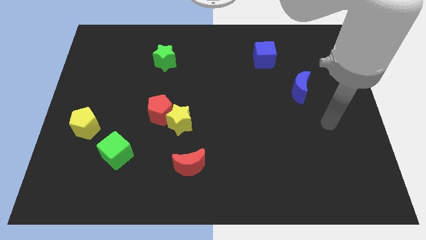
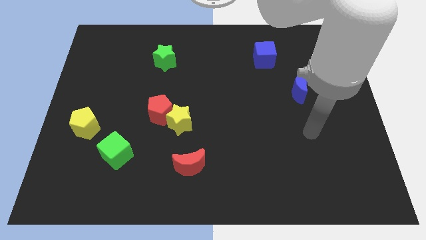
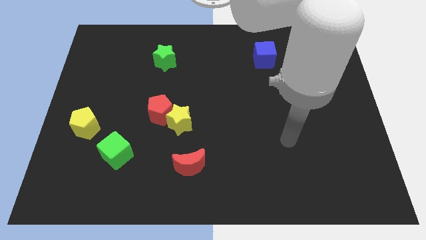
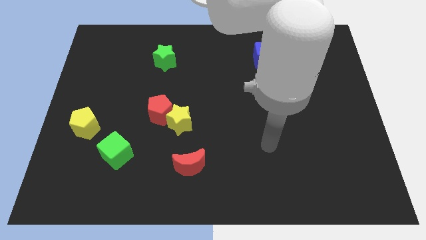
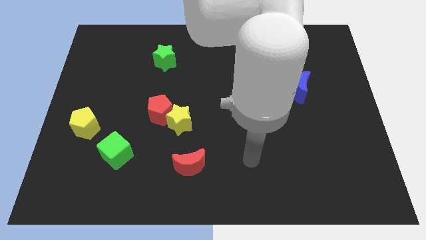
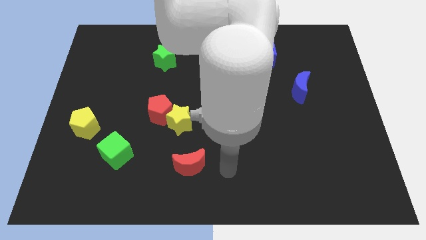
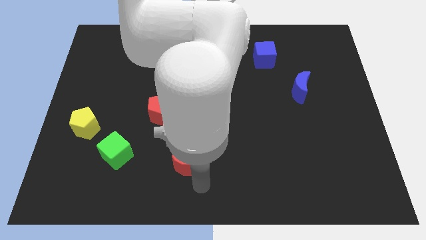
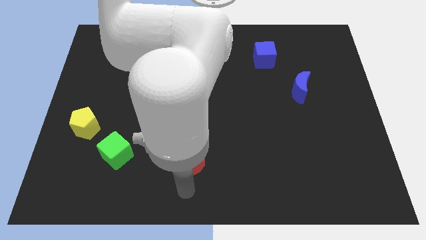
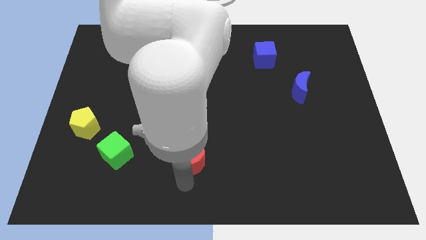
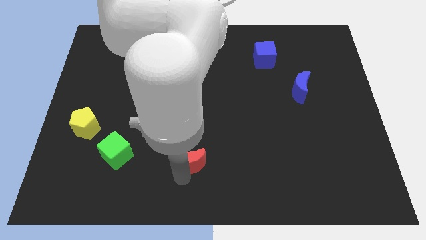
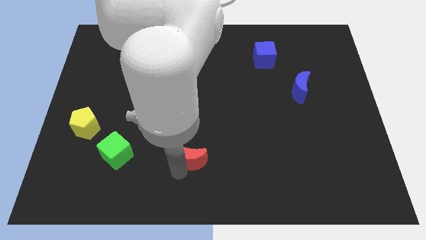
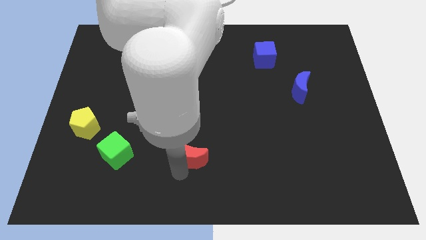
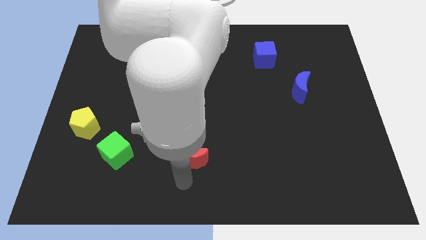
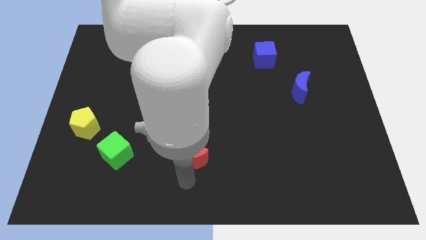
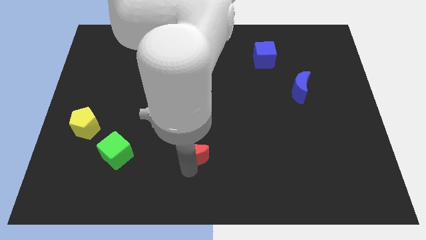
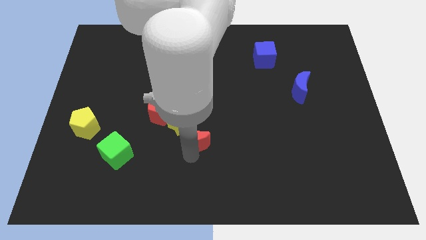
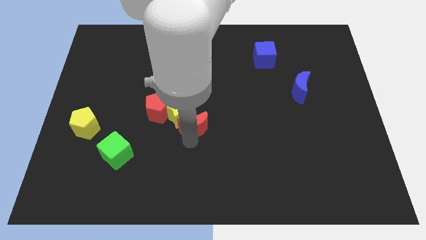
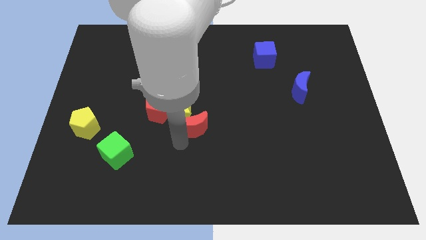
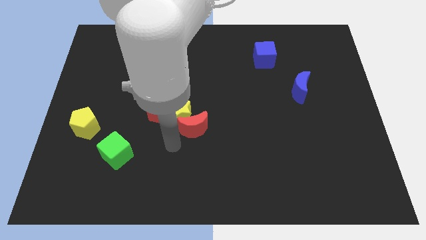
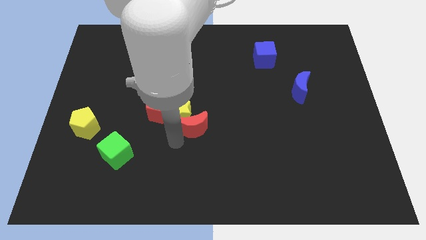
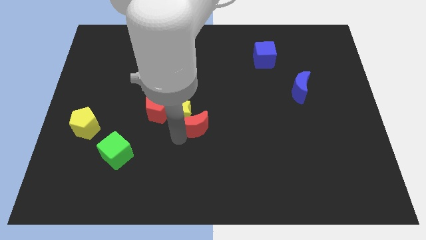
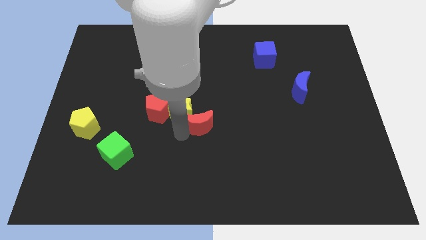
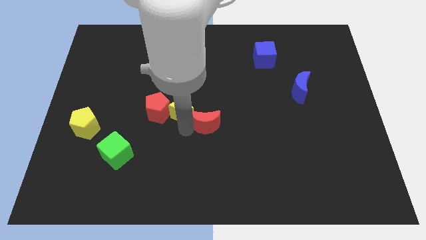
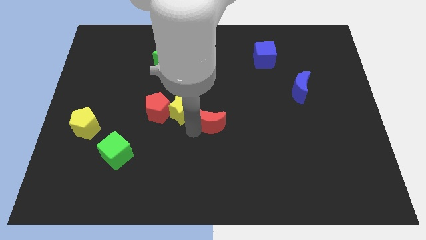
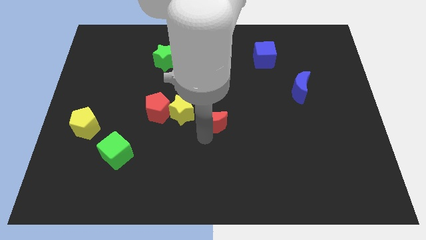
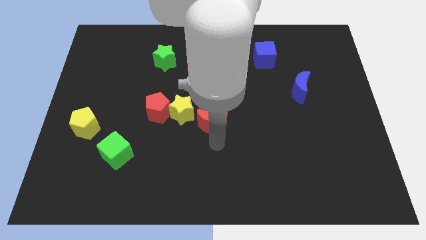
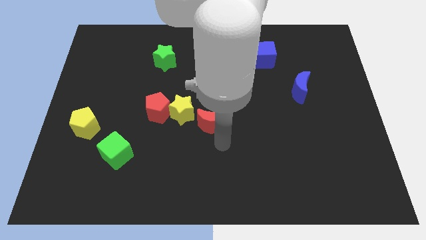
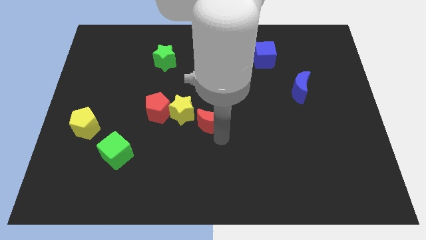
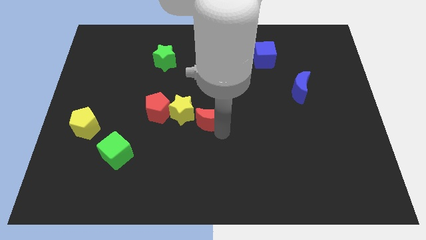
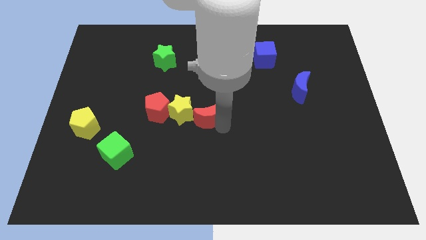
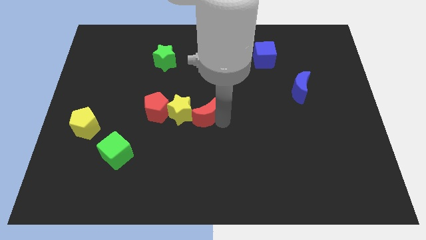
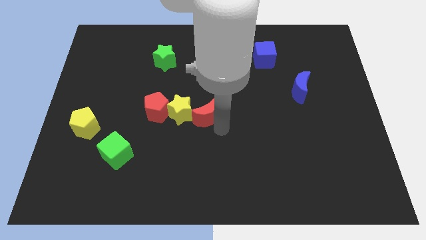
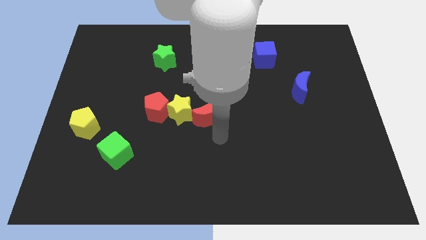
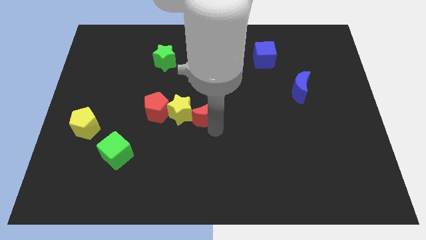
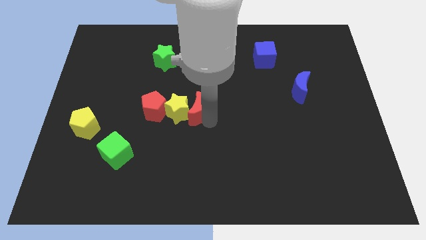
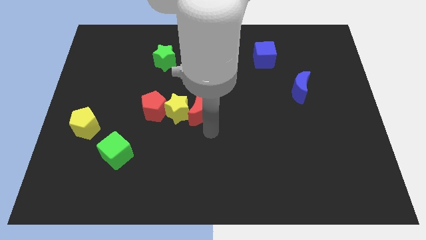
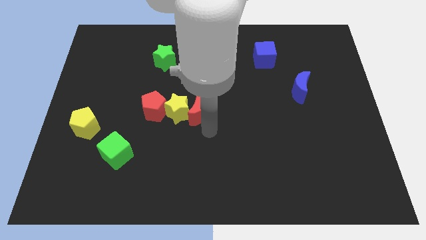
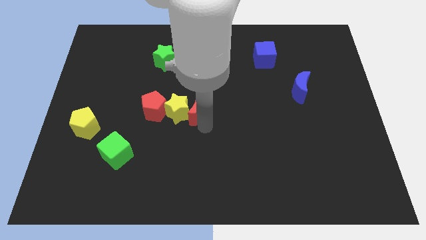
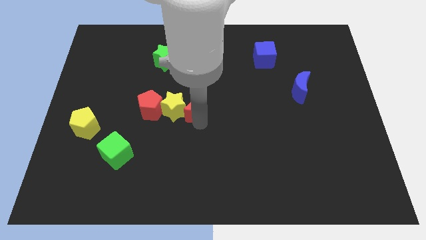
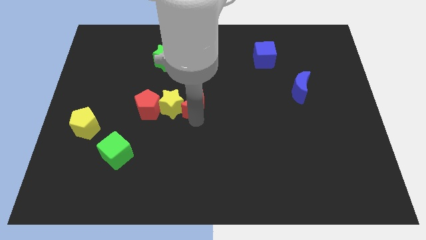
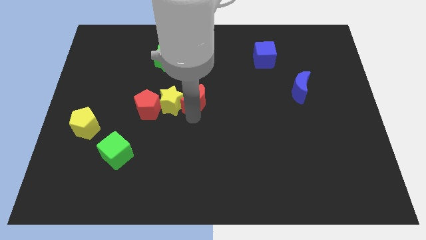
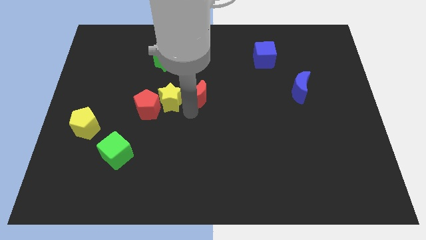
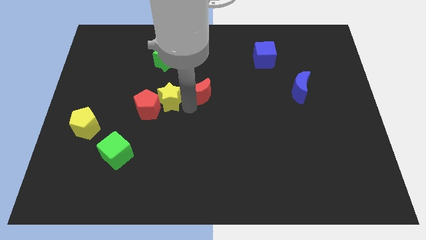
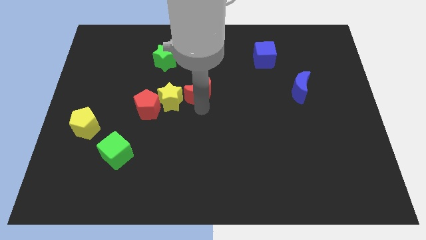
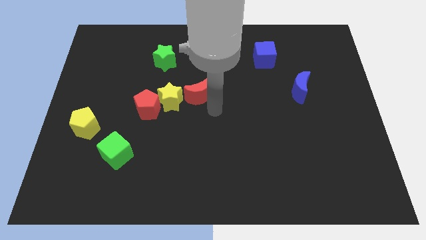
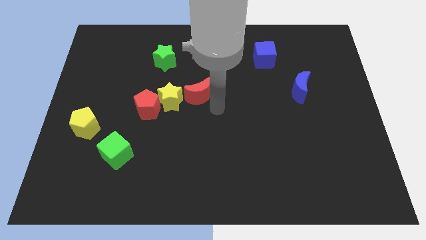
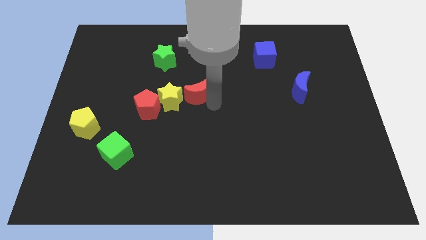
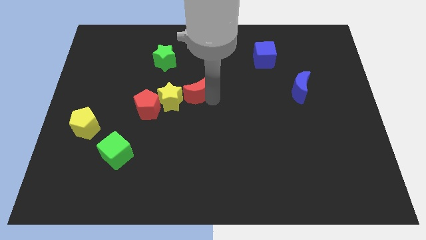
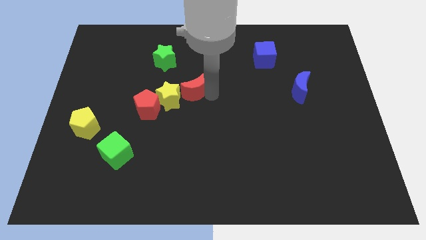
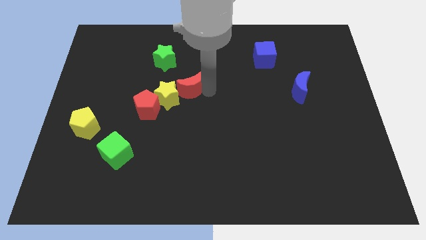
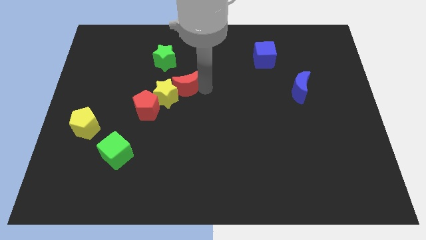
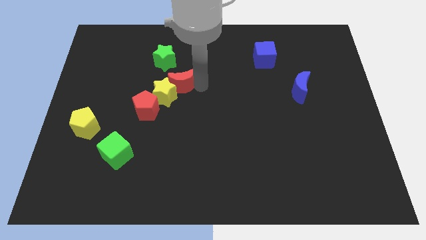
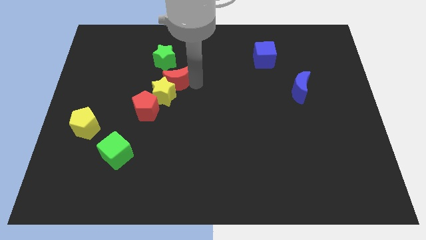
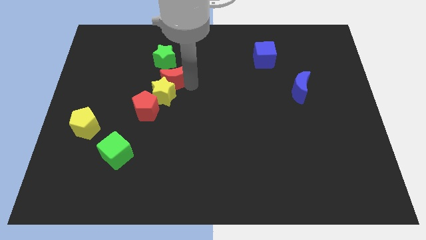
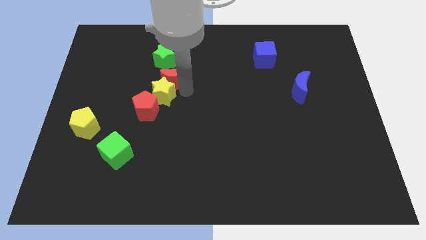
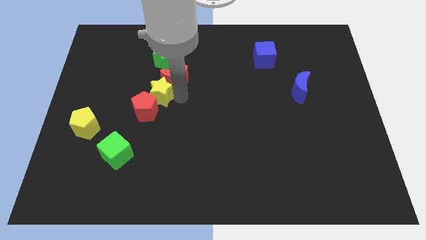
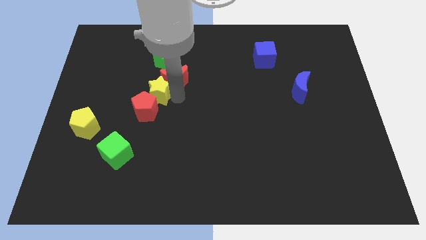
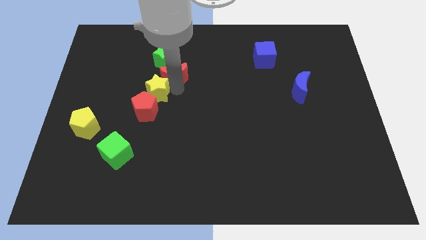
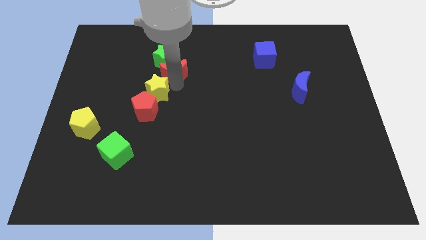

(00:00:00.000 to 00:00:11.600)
put the red moon to the green star

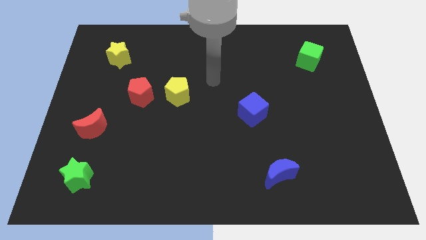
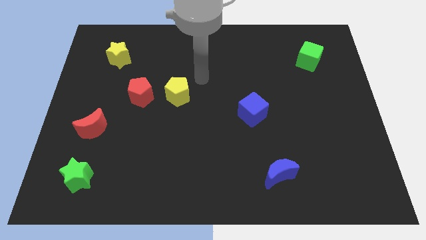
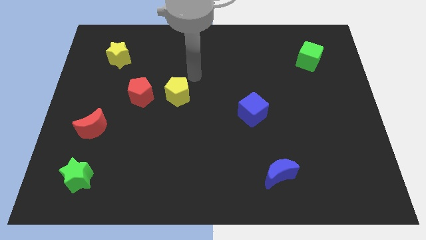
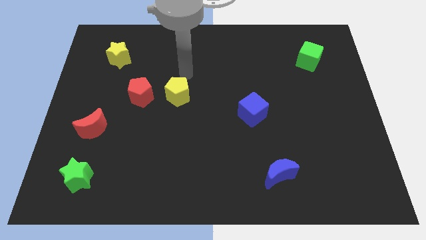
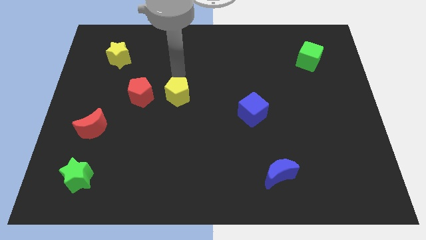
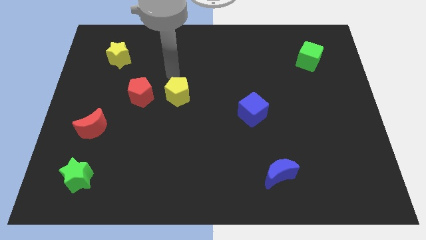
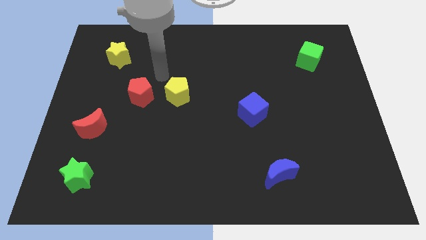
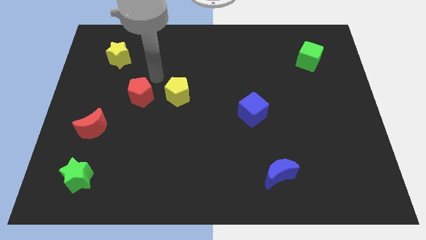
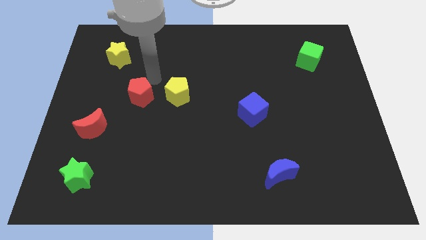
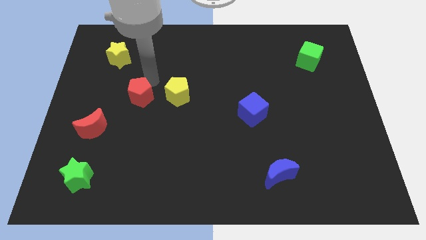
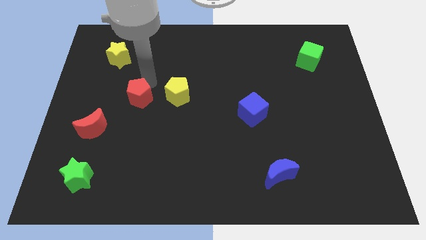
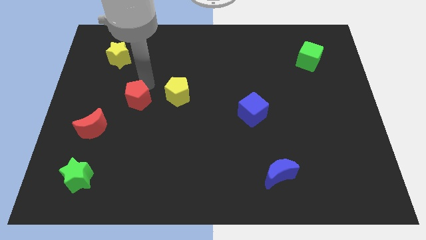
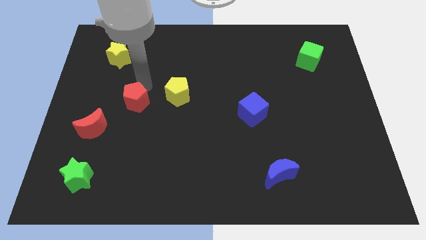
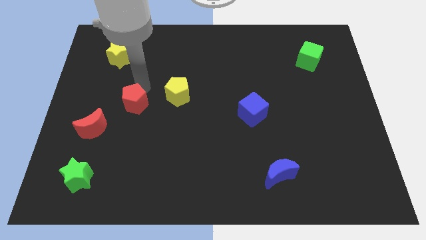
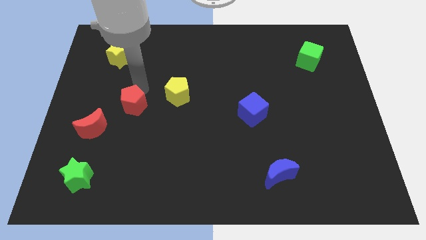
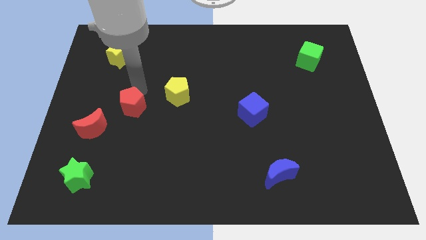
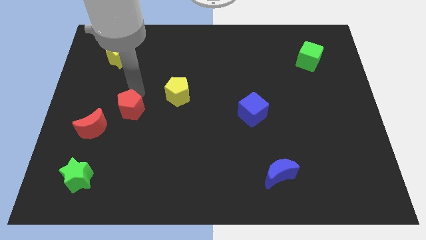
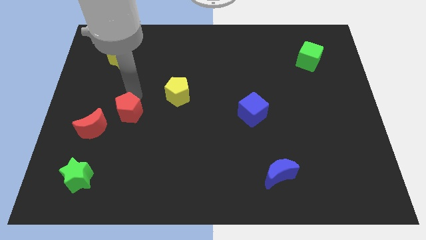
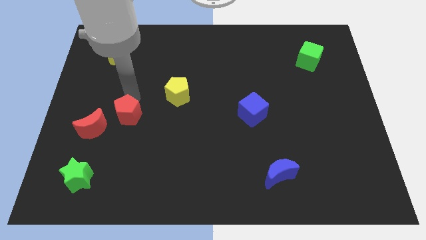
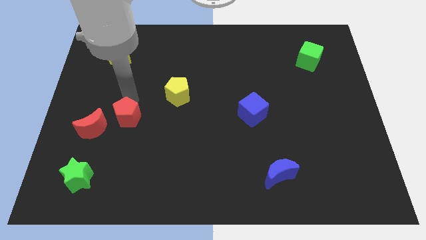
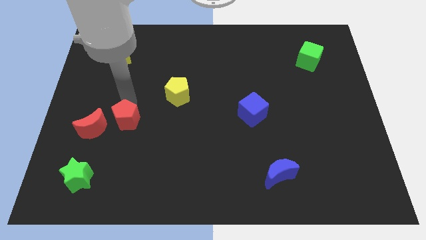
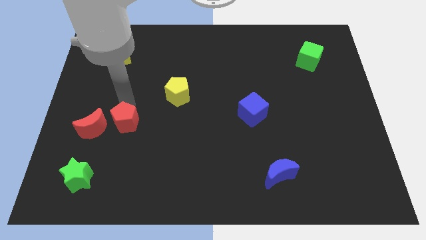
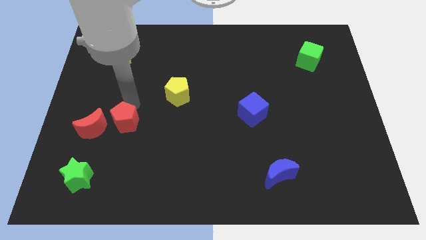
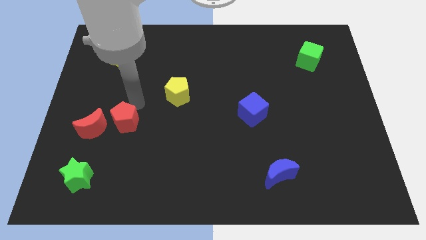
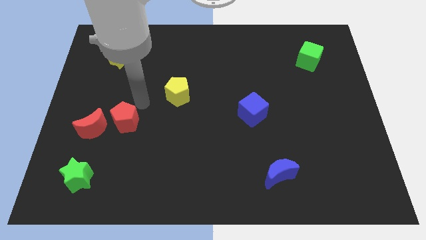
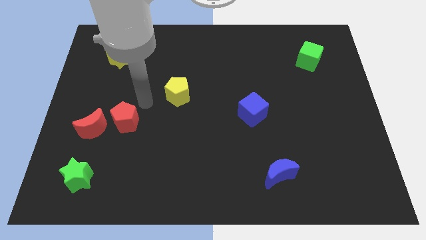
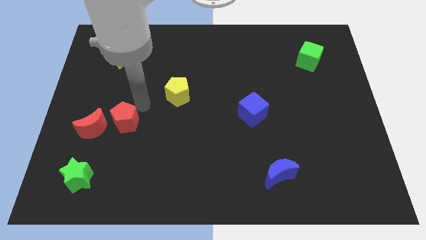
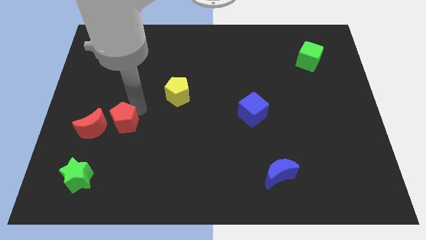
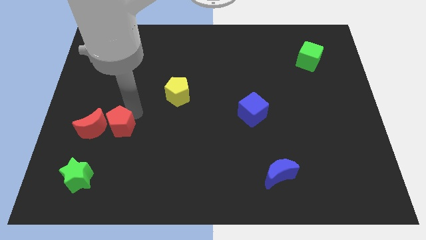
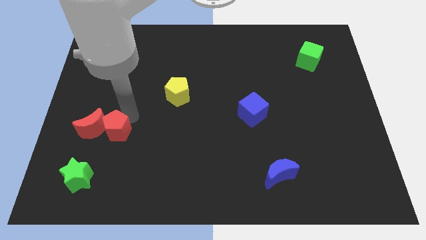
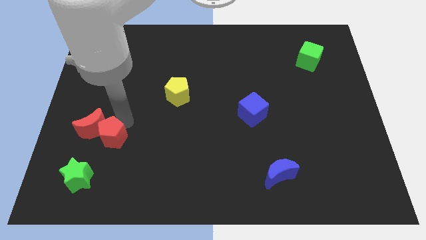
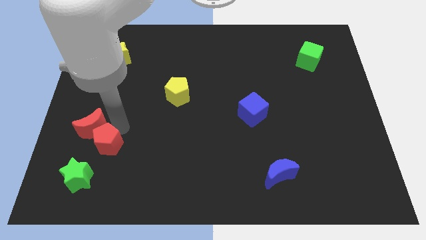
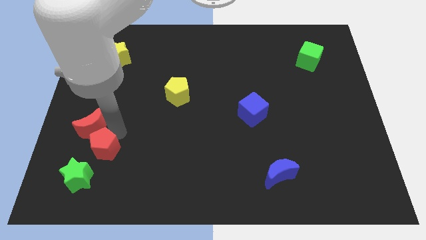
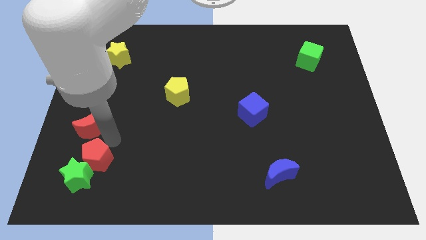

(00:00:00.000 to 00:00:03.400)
slide the red pentagon close to the green star
